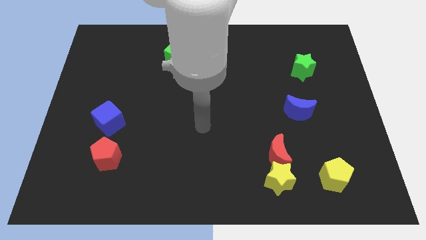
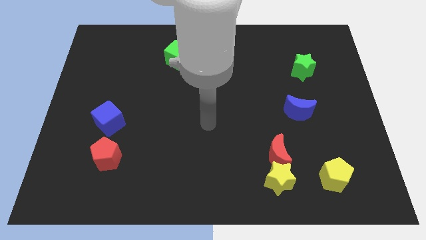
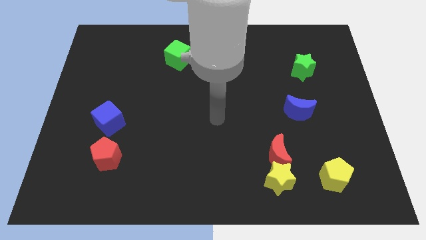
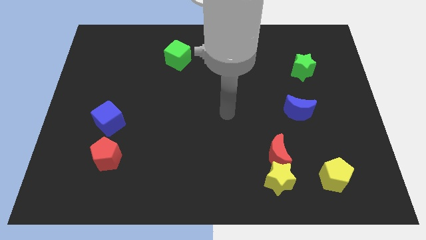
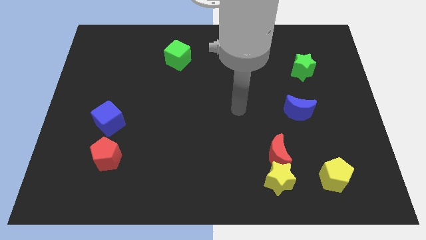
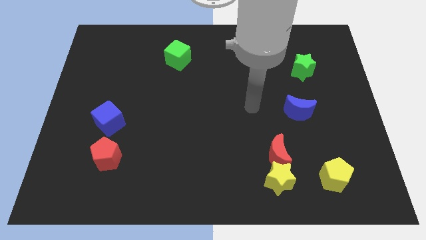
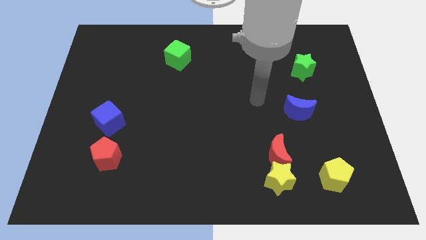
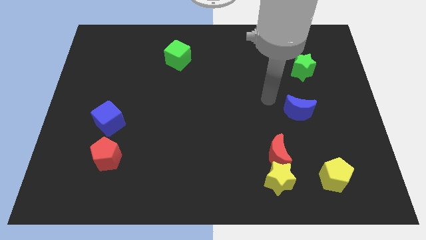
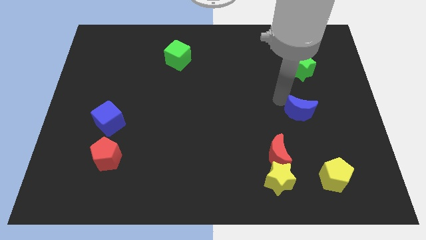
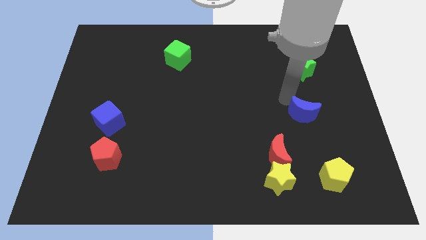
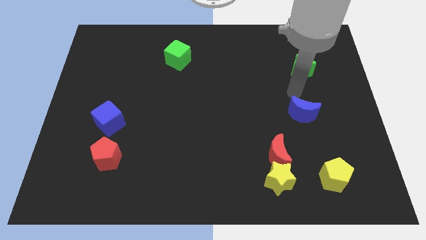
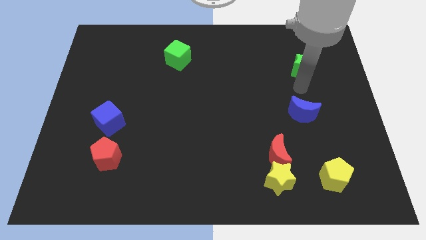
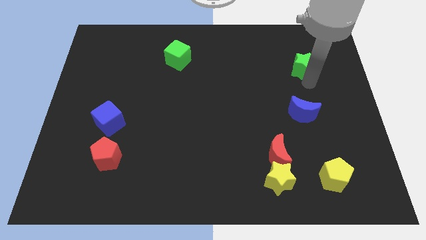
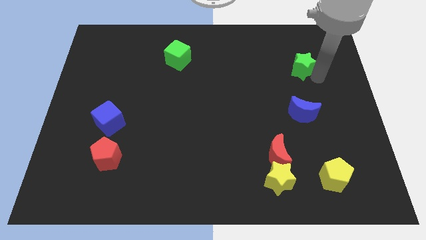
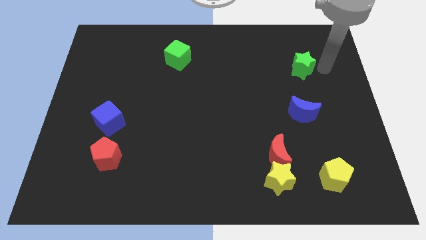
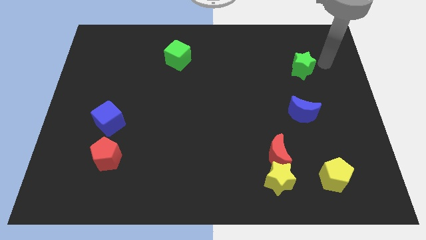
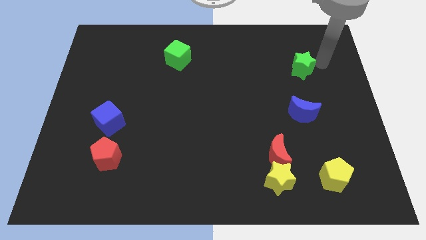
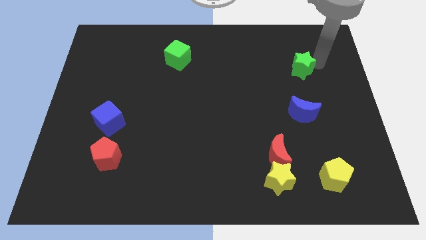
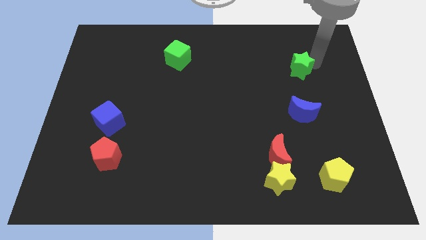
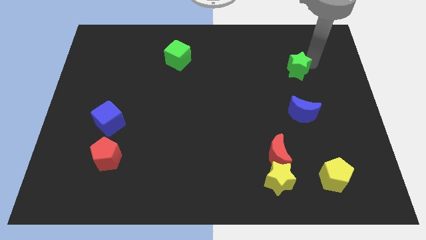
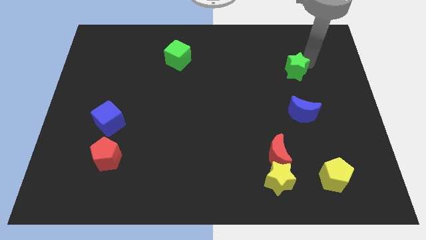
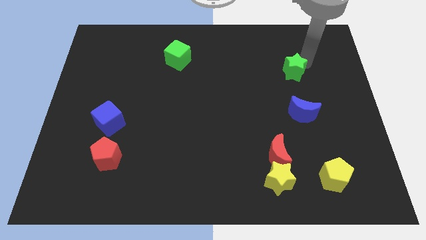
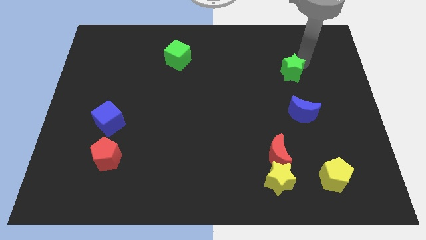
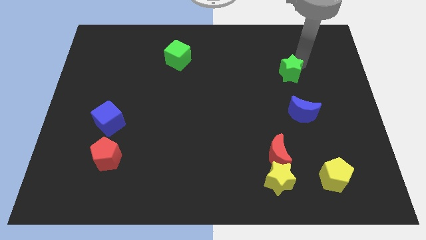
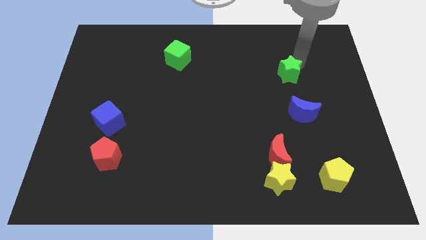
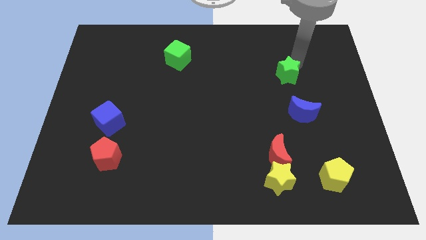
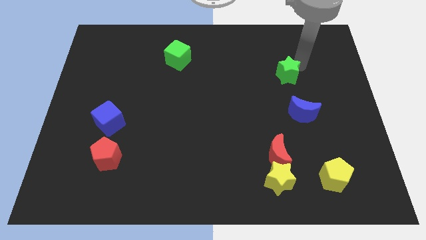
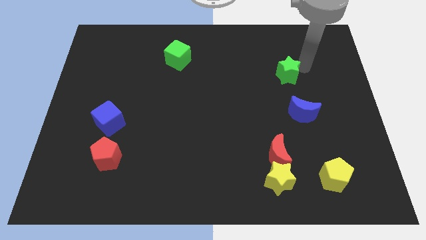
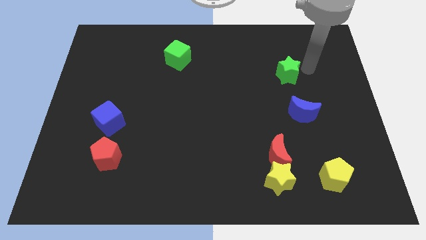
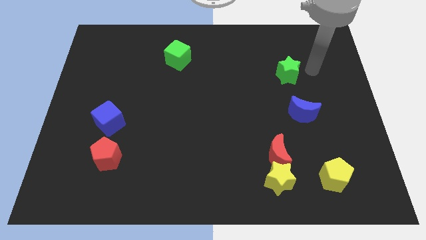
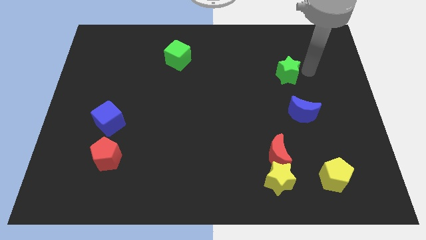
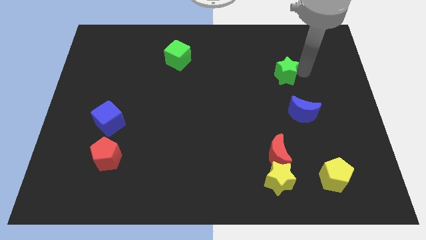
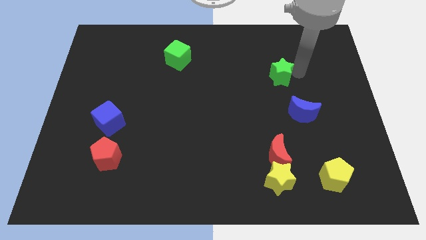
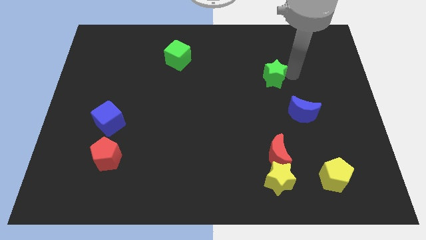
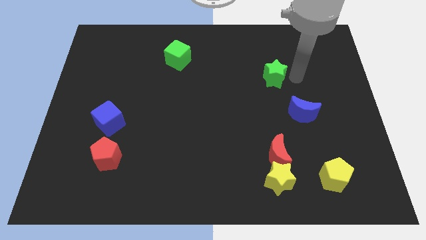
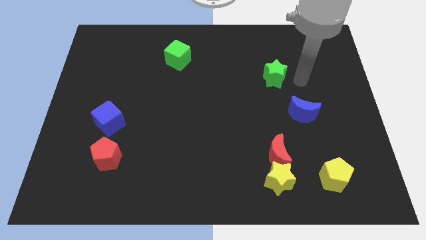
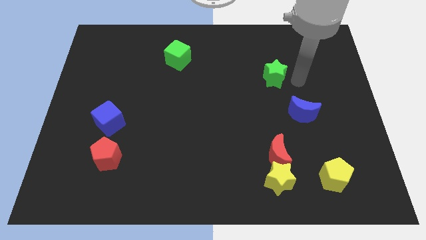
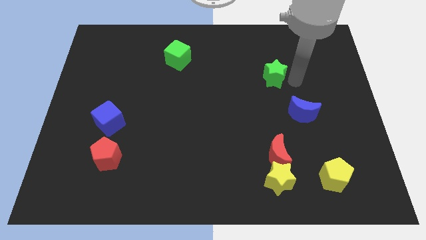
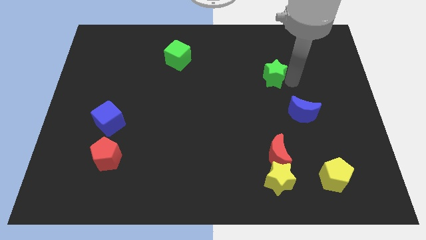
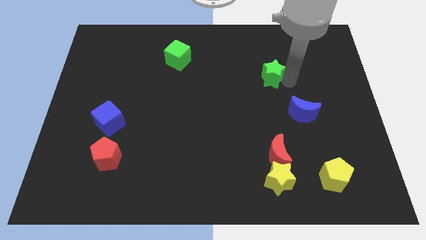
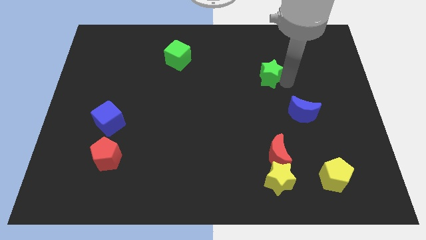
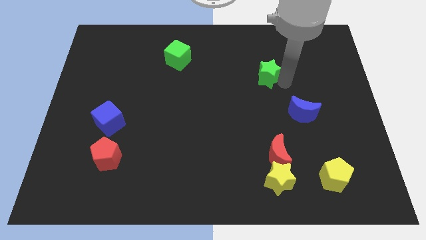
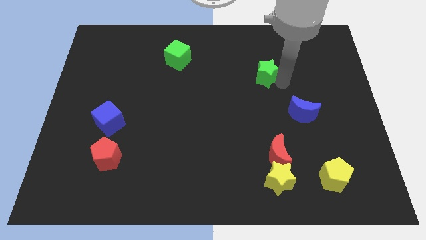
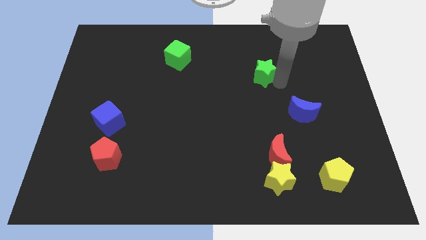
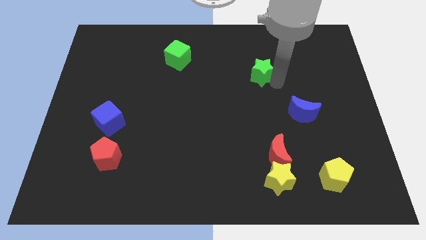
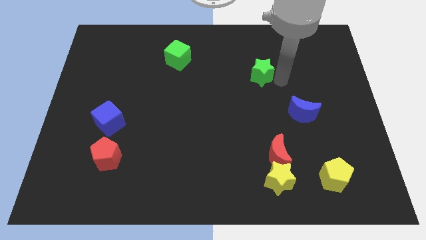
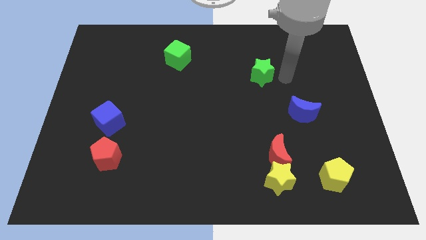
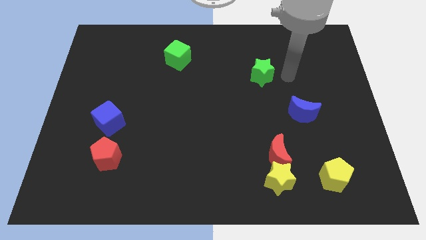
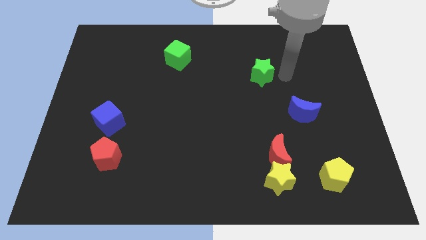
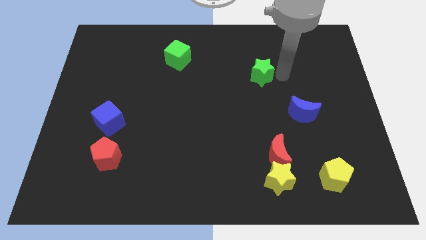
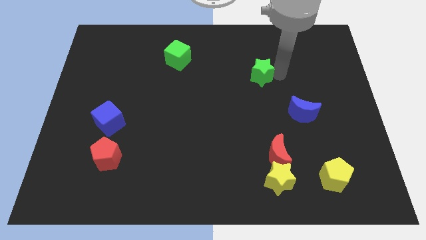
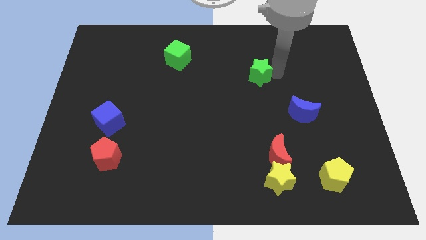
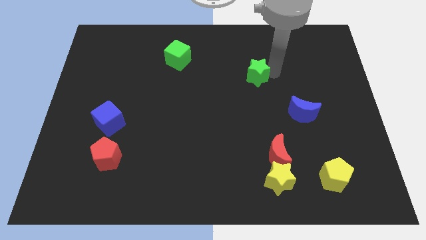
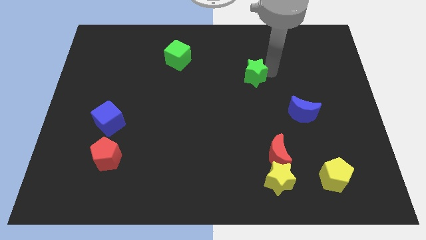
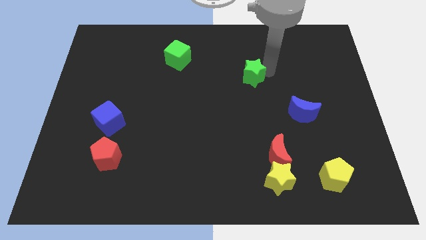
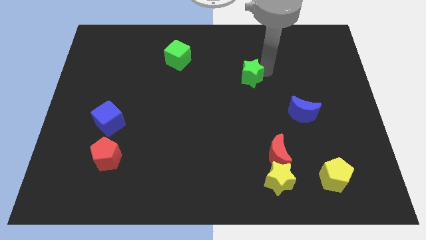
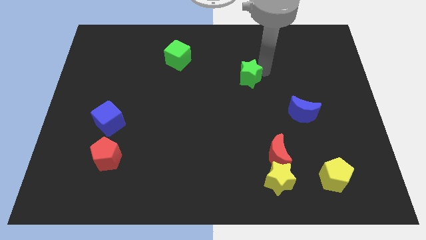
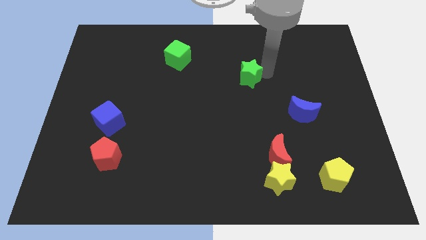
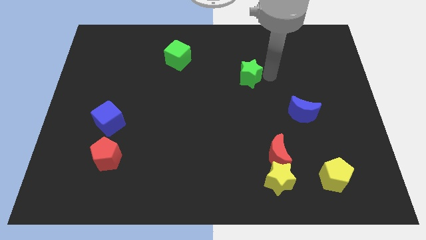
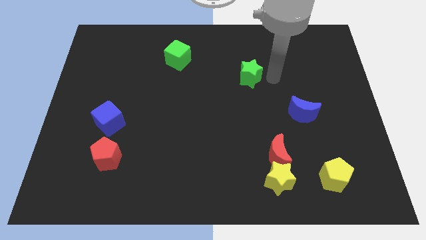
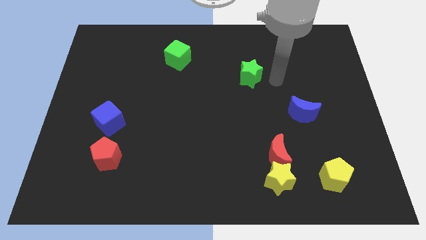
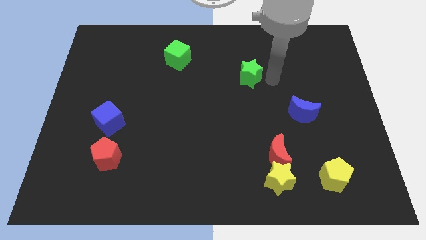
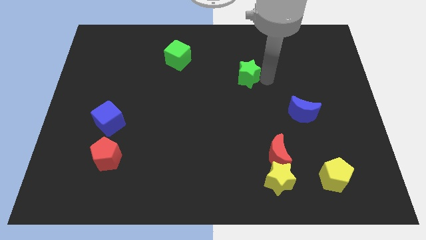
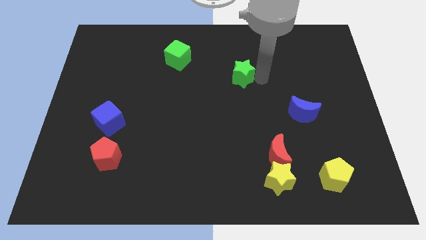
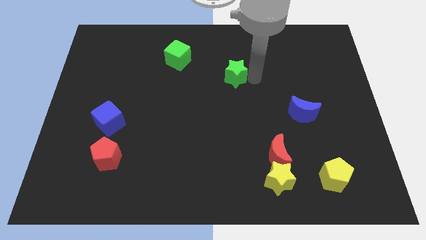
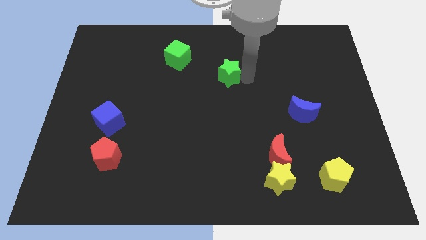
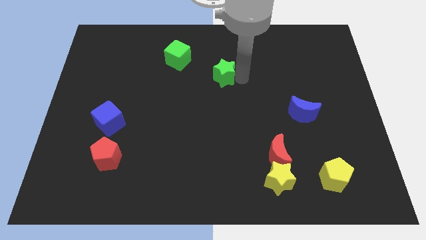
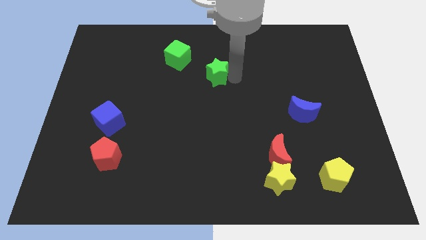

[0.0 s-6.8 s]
push the green star to the bottom right side of the green cube
